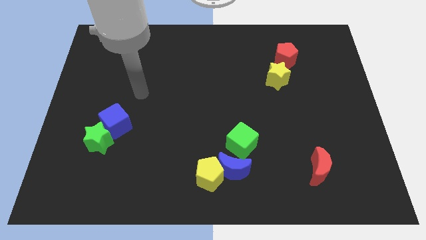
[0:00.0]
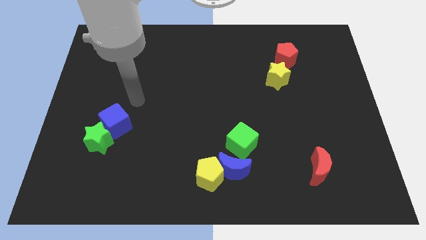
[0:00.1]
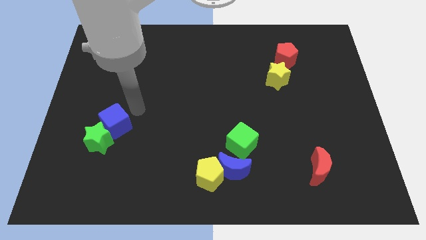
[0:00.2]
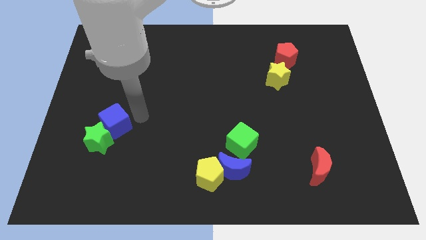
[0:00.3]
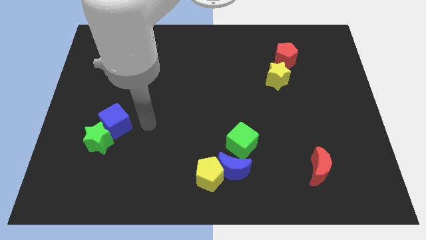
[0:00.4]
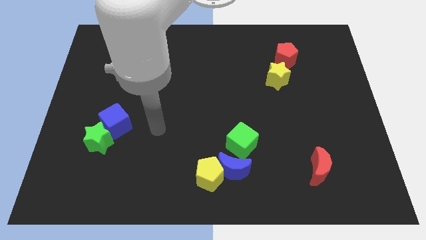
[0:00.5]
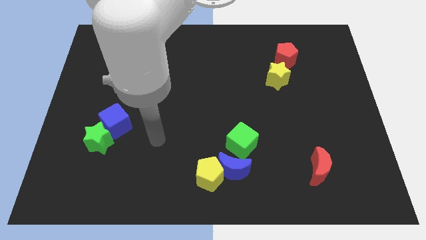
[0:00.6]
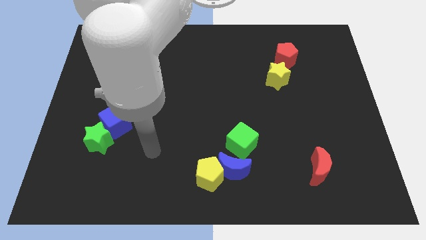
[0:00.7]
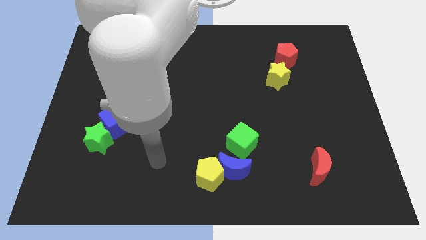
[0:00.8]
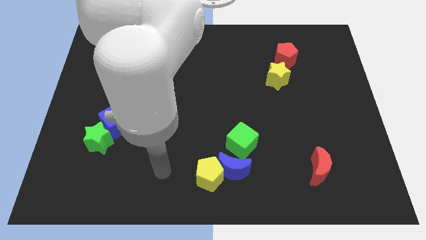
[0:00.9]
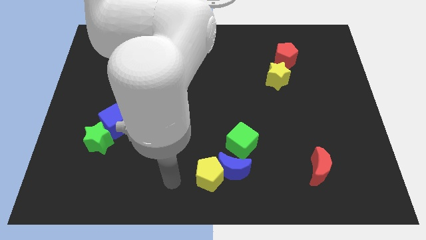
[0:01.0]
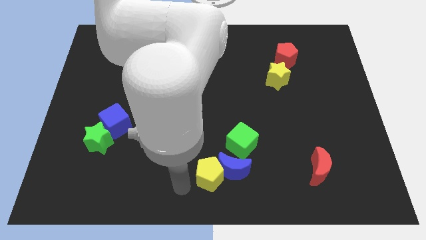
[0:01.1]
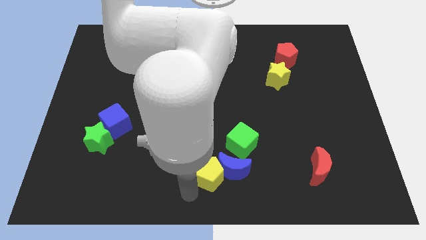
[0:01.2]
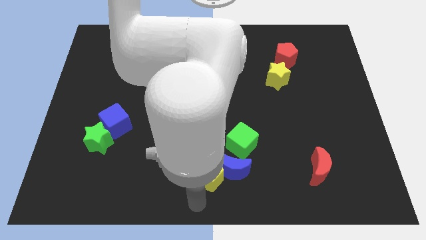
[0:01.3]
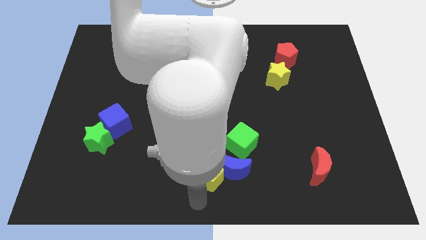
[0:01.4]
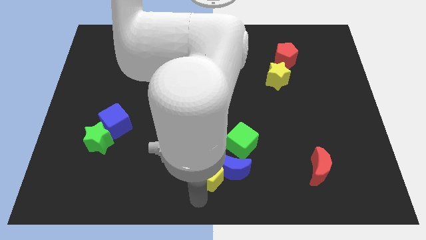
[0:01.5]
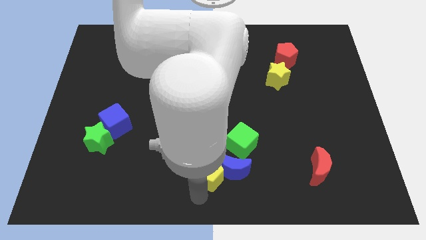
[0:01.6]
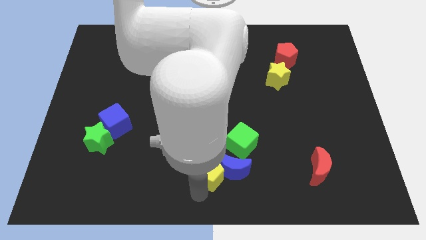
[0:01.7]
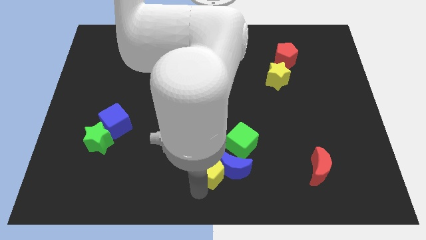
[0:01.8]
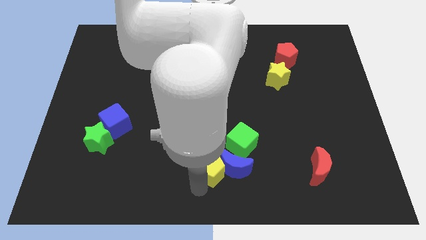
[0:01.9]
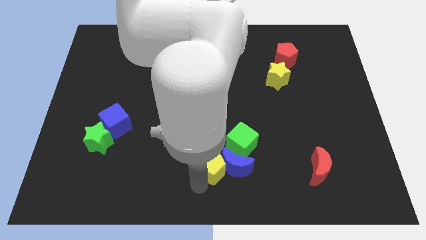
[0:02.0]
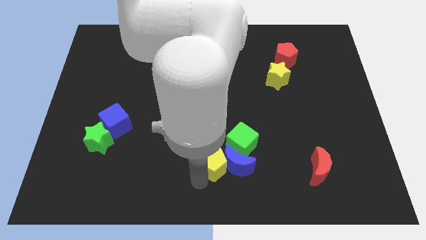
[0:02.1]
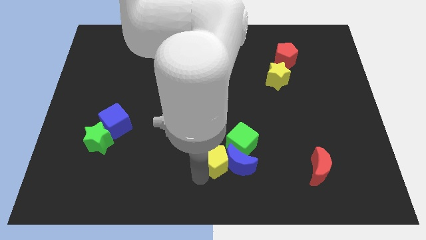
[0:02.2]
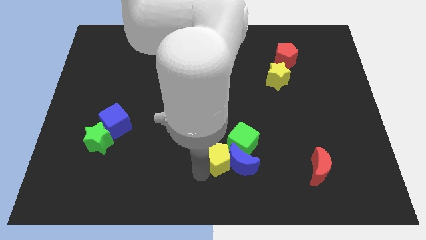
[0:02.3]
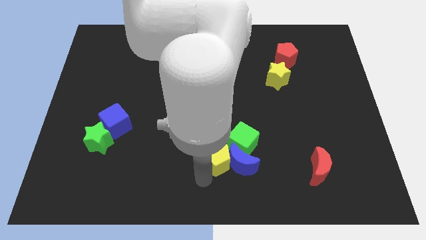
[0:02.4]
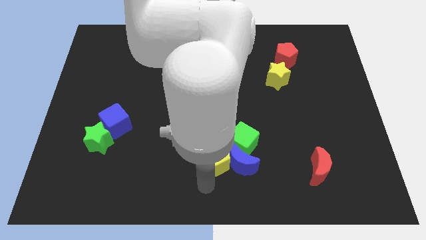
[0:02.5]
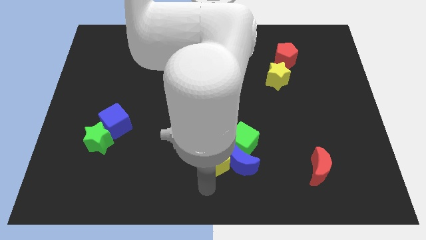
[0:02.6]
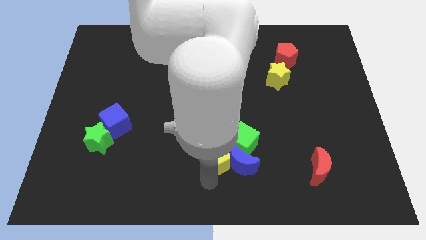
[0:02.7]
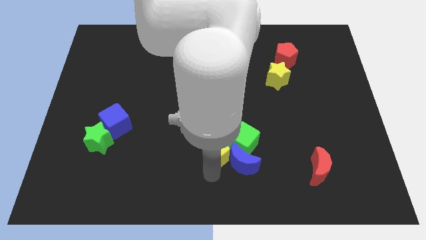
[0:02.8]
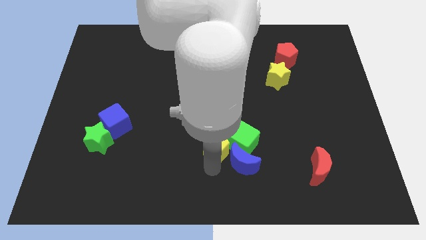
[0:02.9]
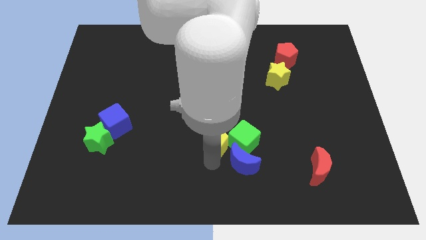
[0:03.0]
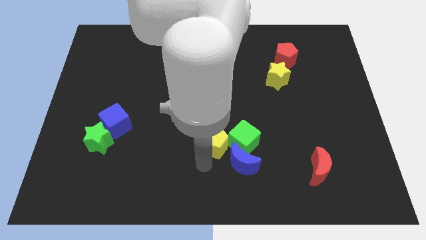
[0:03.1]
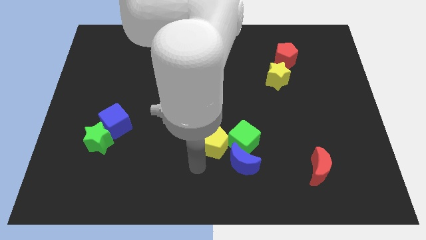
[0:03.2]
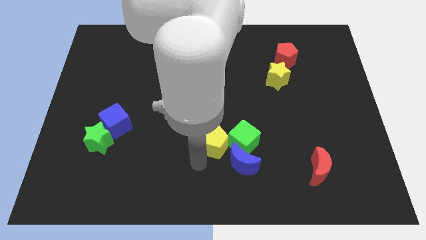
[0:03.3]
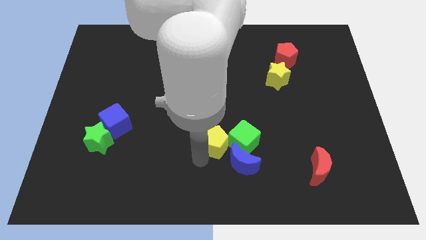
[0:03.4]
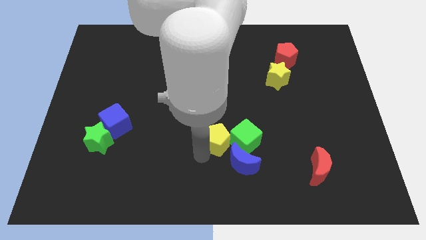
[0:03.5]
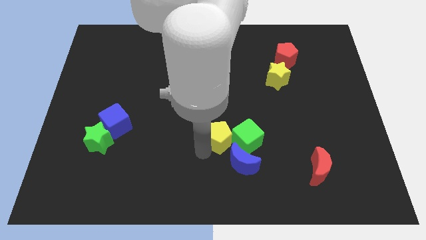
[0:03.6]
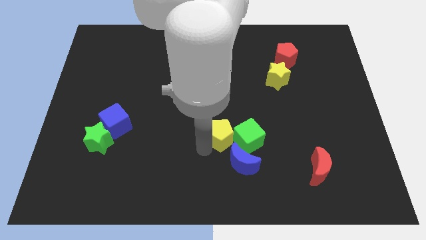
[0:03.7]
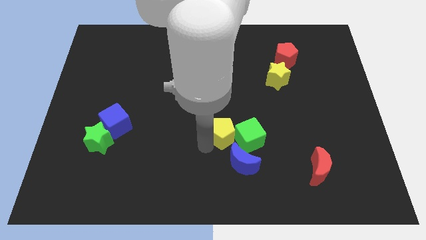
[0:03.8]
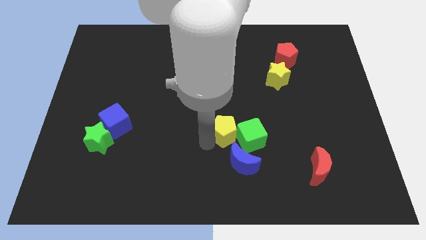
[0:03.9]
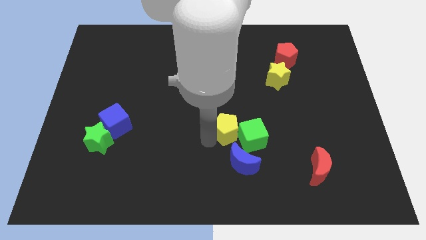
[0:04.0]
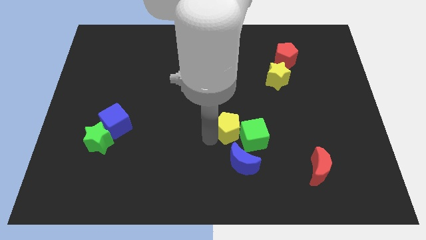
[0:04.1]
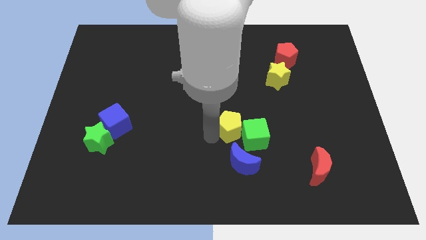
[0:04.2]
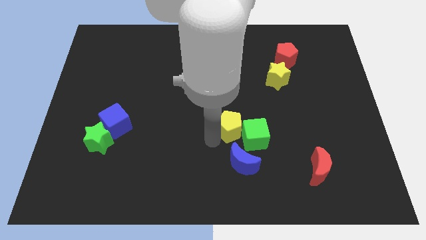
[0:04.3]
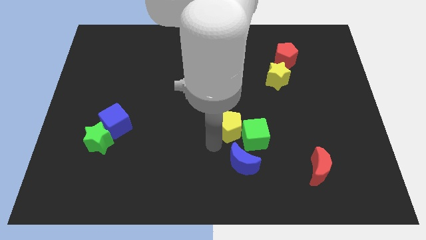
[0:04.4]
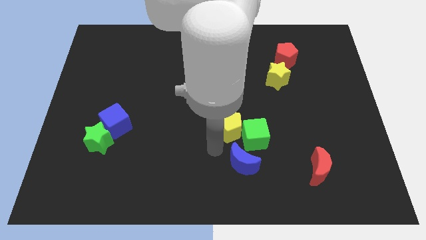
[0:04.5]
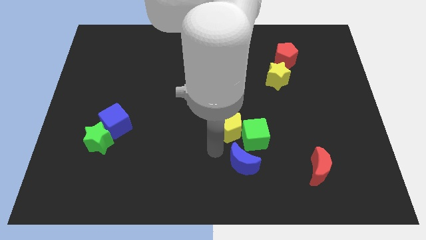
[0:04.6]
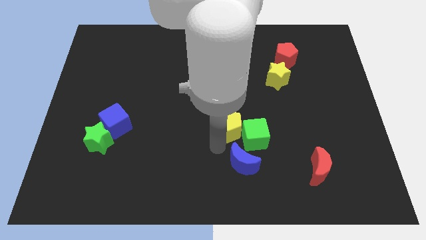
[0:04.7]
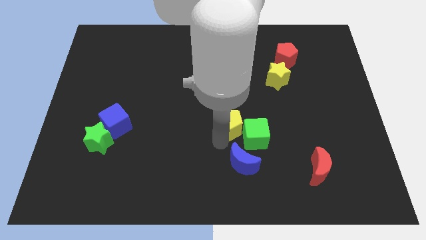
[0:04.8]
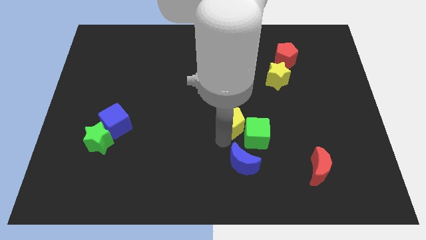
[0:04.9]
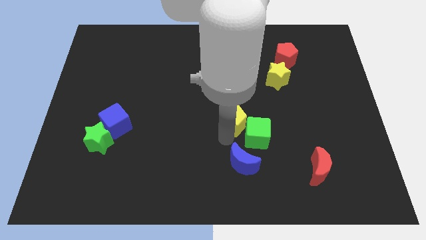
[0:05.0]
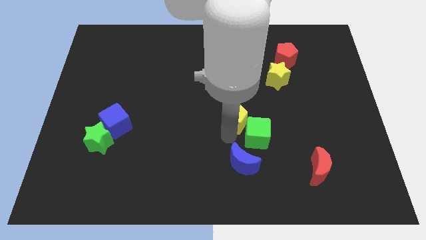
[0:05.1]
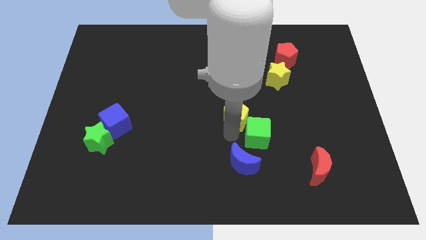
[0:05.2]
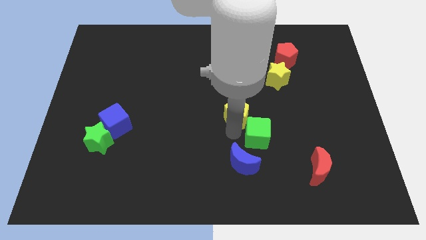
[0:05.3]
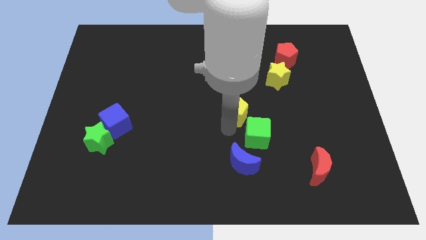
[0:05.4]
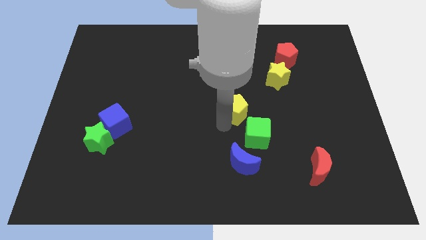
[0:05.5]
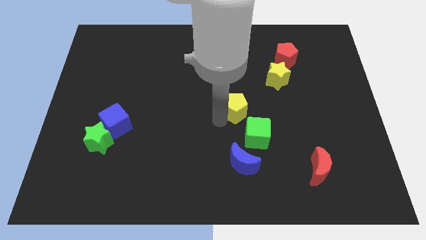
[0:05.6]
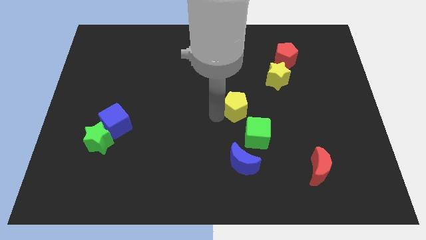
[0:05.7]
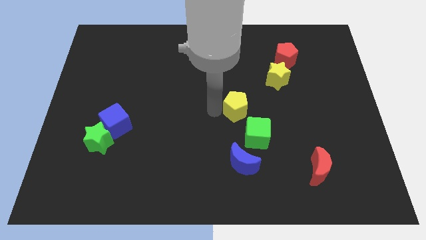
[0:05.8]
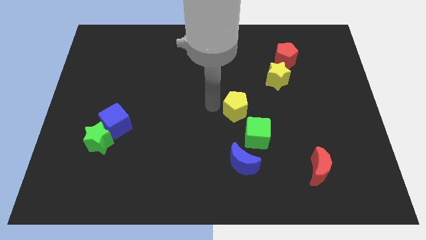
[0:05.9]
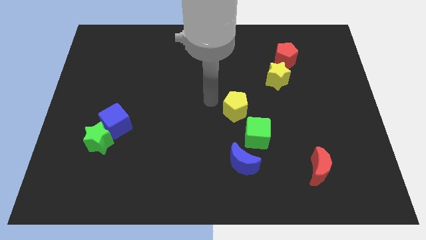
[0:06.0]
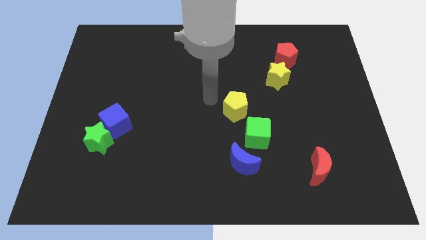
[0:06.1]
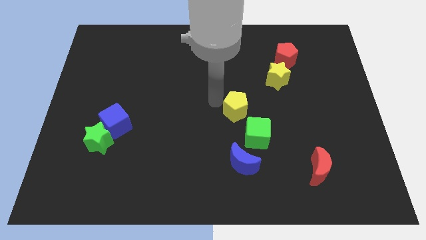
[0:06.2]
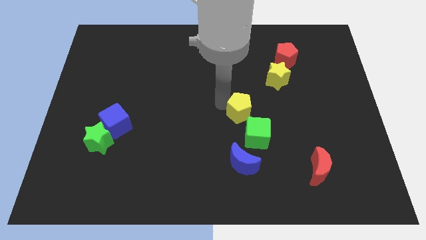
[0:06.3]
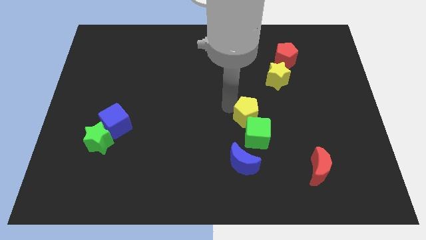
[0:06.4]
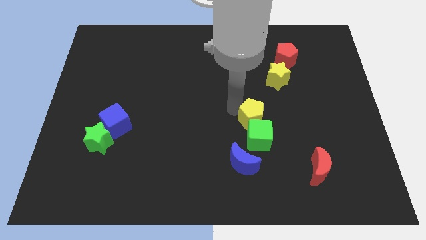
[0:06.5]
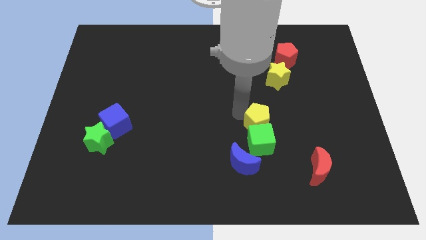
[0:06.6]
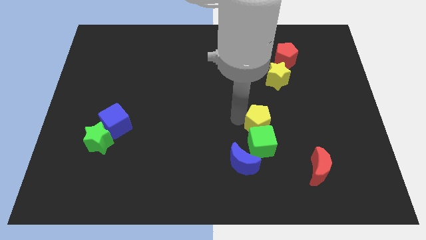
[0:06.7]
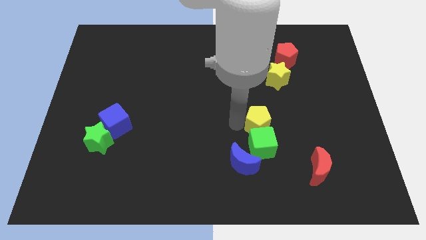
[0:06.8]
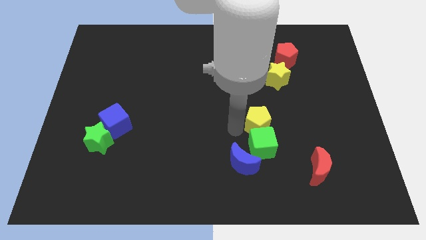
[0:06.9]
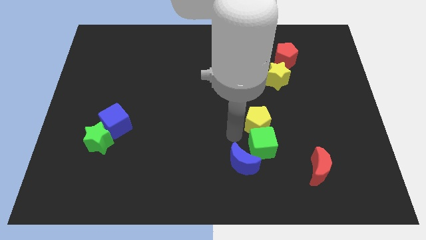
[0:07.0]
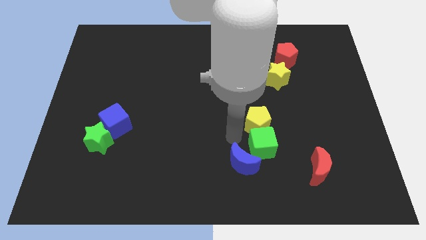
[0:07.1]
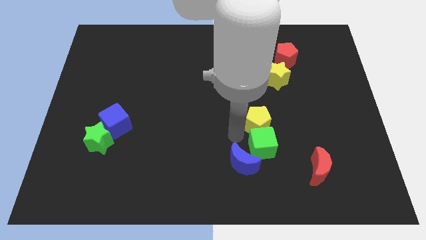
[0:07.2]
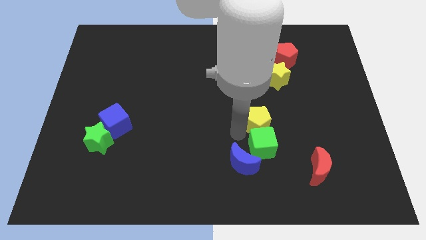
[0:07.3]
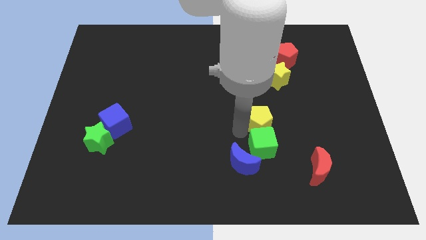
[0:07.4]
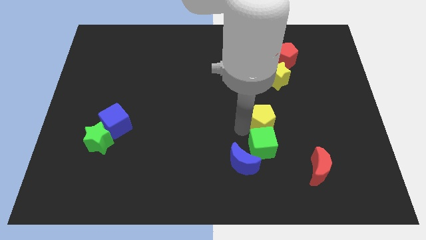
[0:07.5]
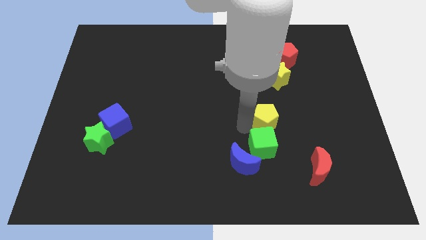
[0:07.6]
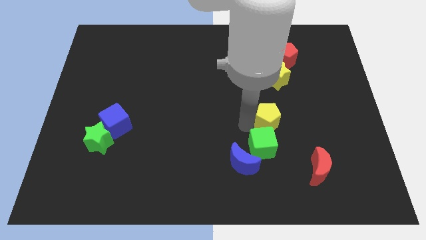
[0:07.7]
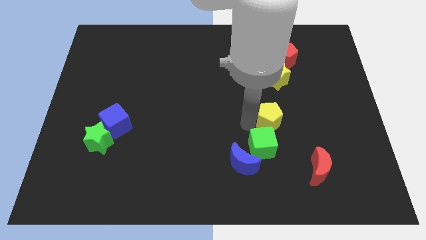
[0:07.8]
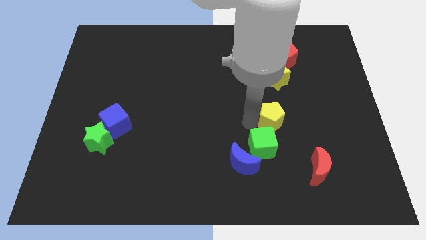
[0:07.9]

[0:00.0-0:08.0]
move the yellow pentagon diagonally upwards and to the right
